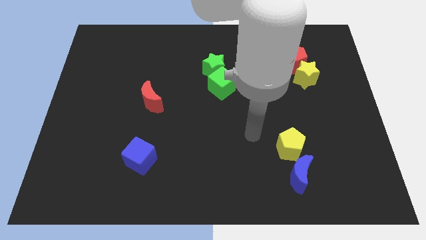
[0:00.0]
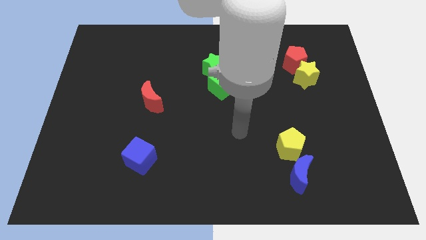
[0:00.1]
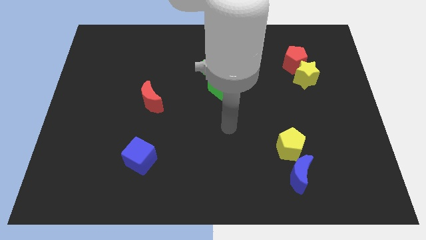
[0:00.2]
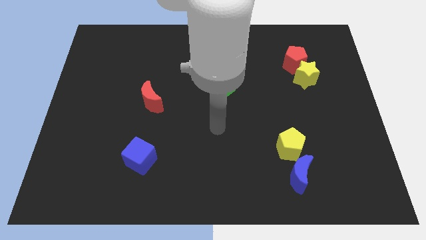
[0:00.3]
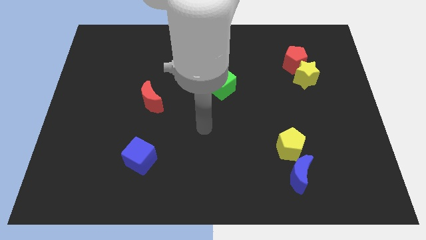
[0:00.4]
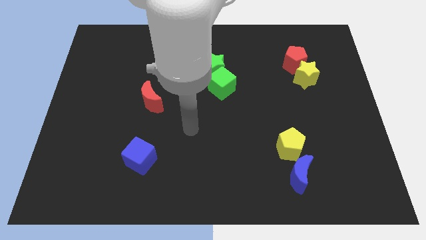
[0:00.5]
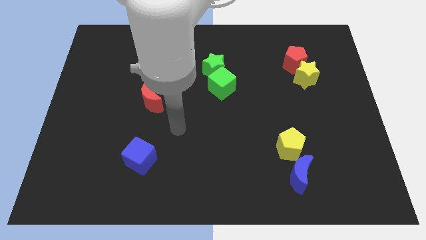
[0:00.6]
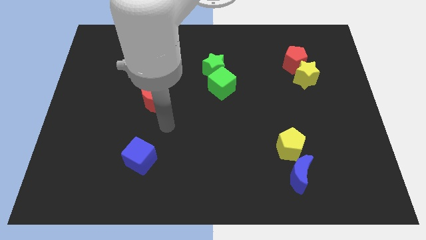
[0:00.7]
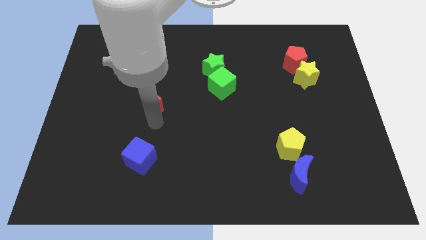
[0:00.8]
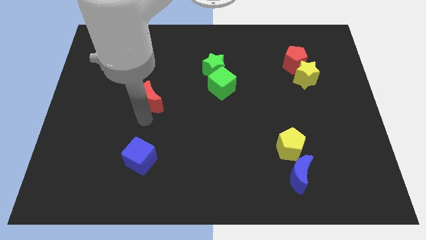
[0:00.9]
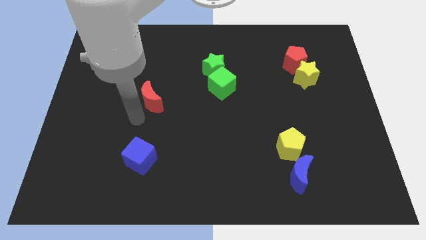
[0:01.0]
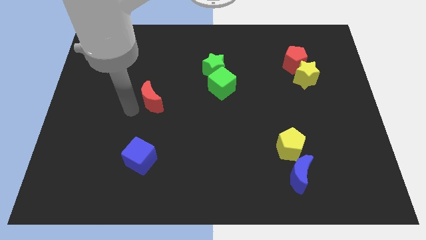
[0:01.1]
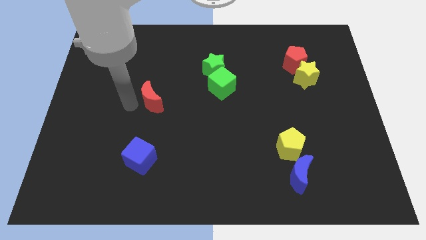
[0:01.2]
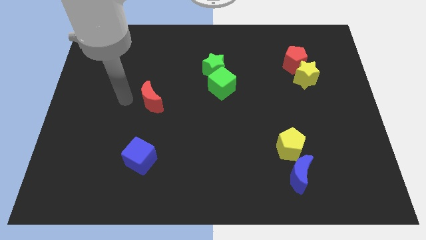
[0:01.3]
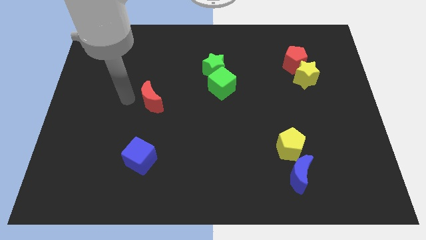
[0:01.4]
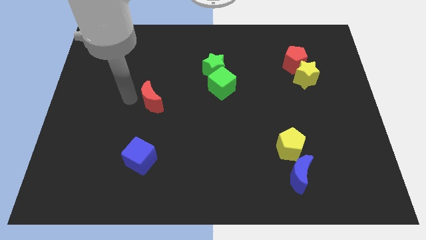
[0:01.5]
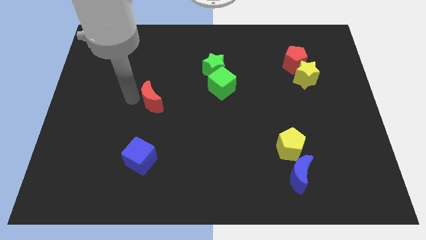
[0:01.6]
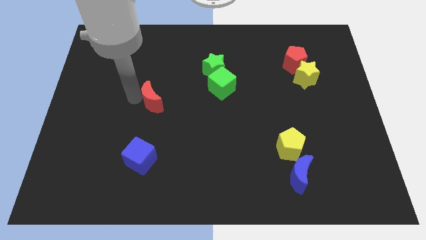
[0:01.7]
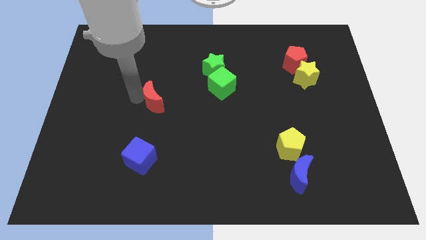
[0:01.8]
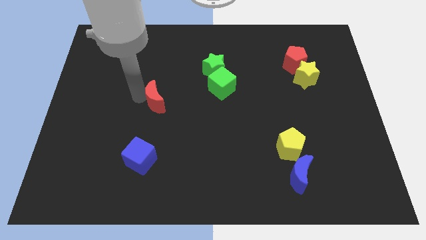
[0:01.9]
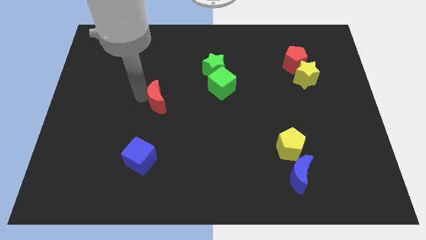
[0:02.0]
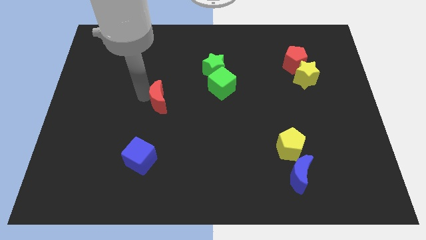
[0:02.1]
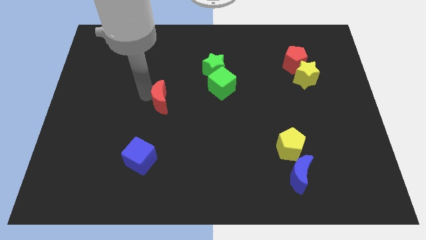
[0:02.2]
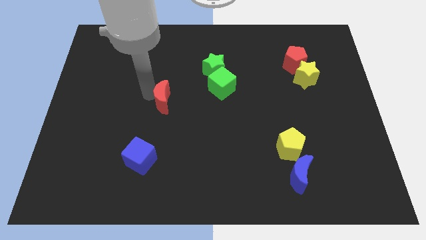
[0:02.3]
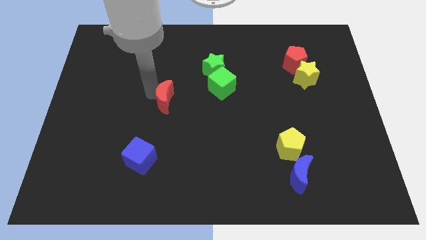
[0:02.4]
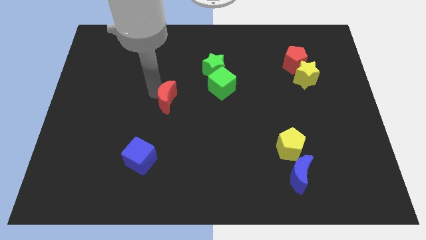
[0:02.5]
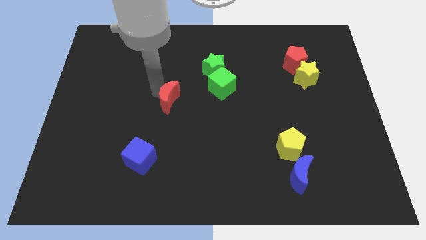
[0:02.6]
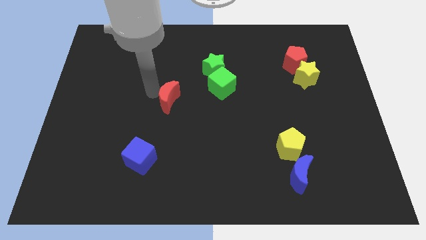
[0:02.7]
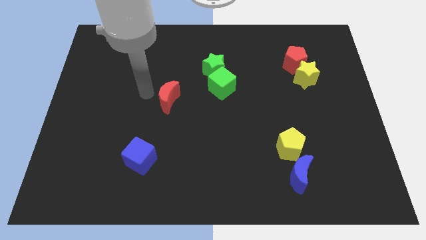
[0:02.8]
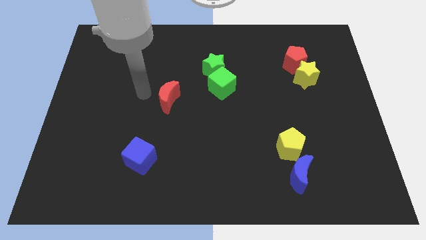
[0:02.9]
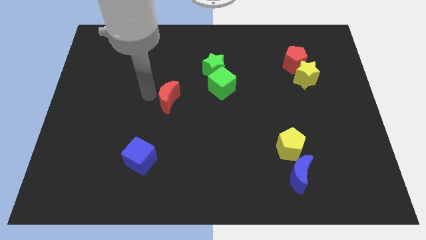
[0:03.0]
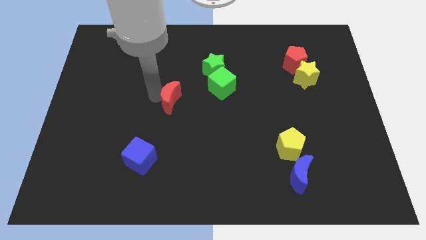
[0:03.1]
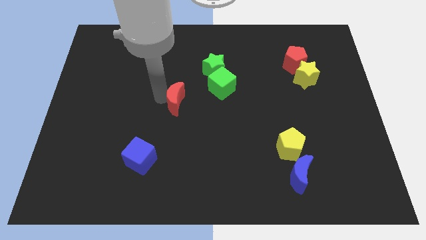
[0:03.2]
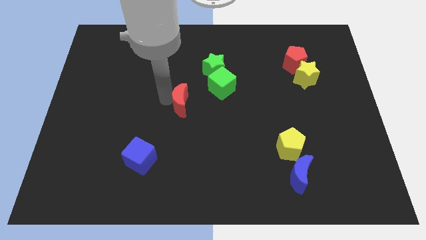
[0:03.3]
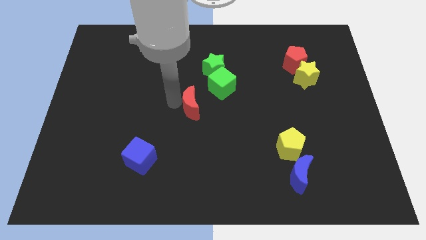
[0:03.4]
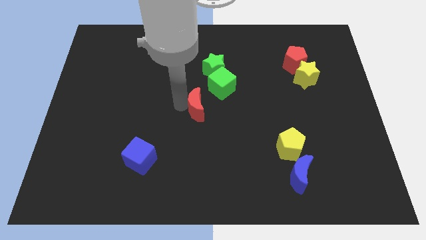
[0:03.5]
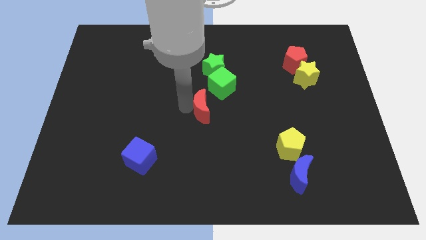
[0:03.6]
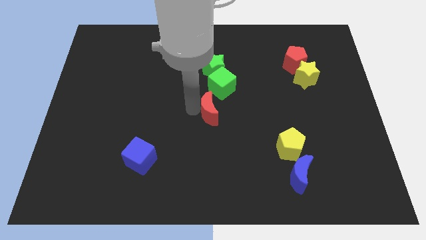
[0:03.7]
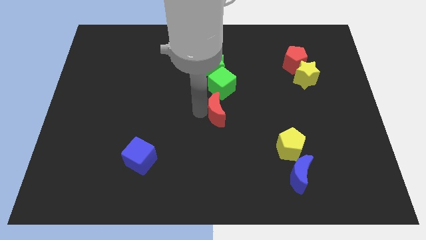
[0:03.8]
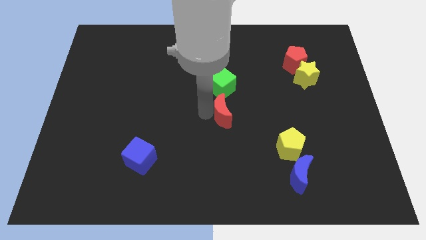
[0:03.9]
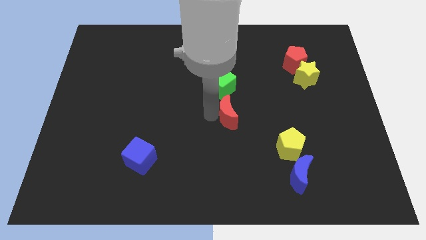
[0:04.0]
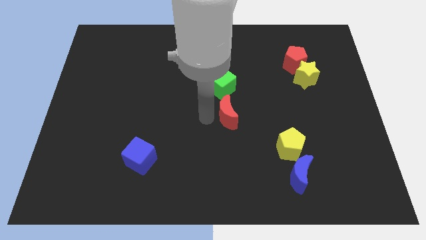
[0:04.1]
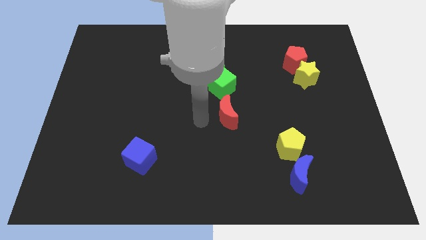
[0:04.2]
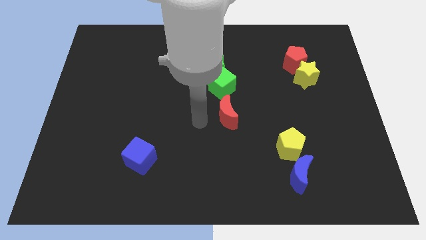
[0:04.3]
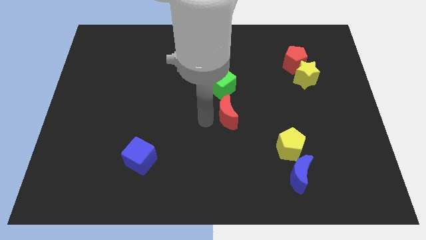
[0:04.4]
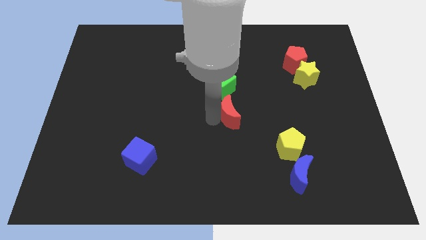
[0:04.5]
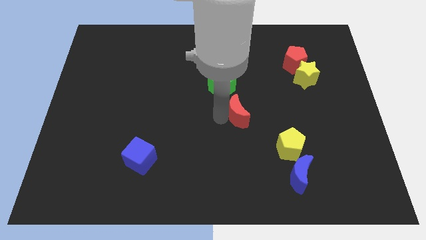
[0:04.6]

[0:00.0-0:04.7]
push the red moon right

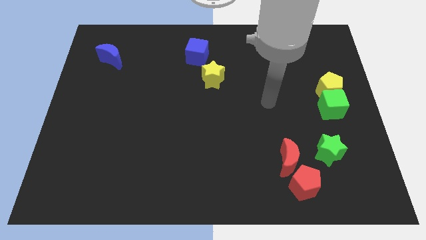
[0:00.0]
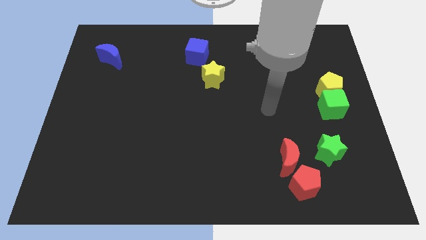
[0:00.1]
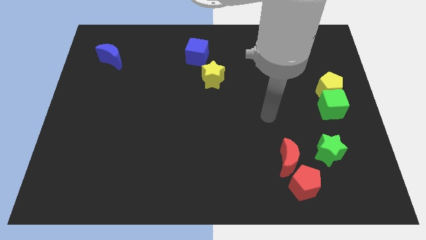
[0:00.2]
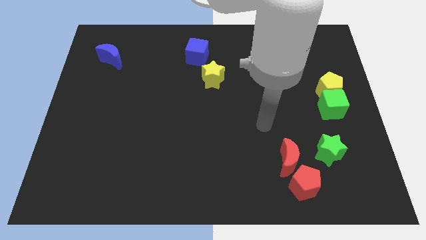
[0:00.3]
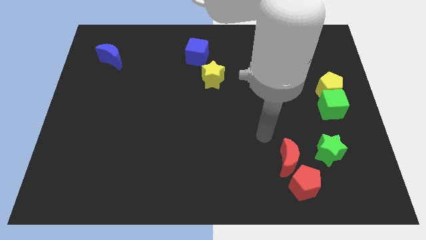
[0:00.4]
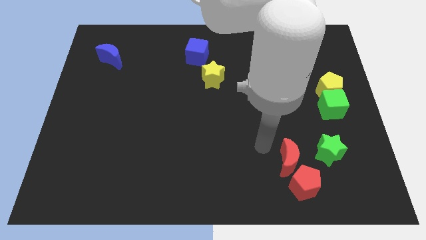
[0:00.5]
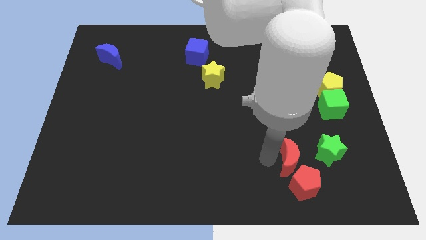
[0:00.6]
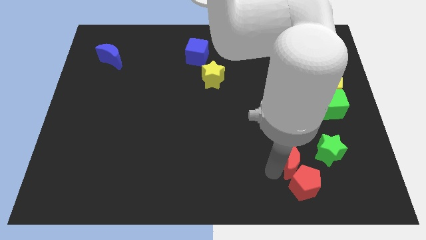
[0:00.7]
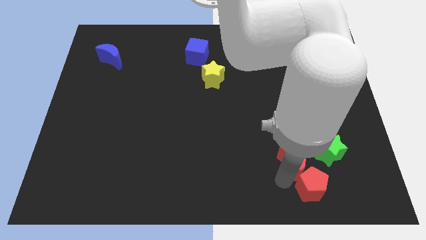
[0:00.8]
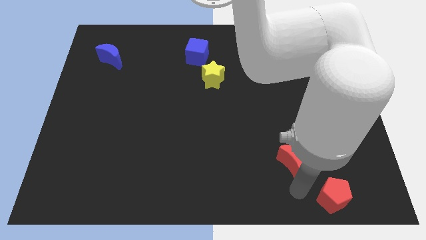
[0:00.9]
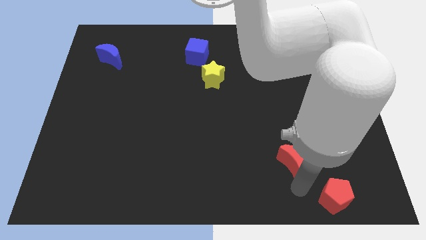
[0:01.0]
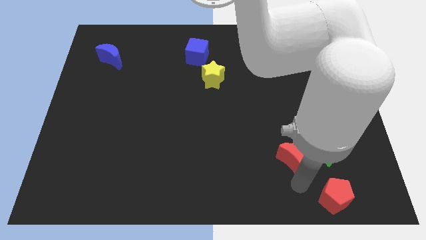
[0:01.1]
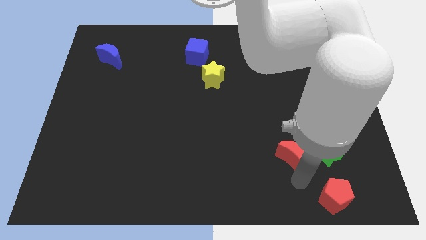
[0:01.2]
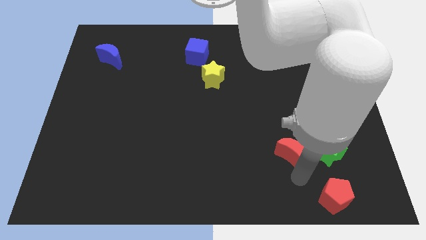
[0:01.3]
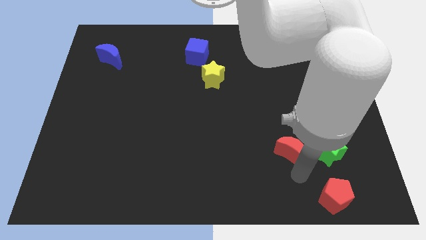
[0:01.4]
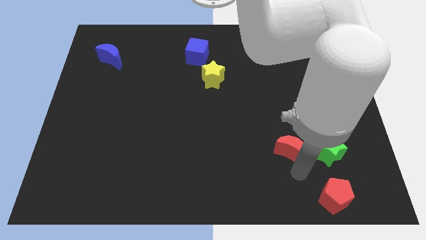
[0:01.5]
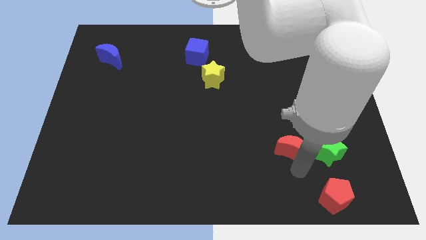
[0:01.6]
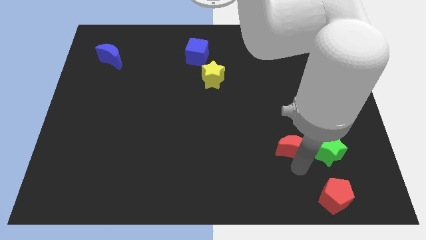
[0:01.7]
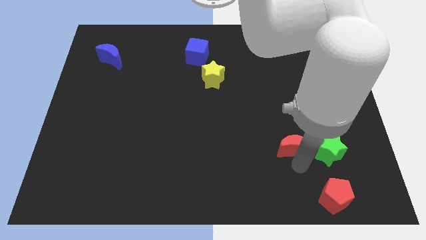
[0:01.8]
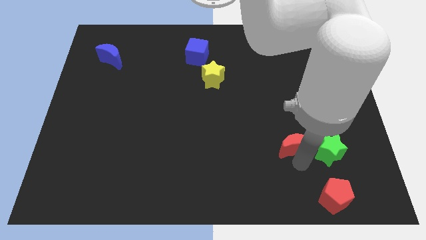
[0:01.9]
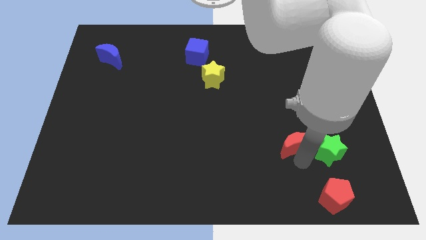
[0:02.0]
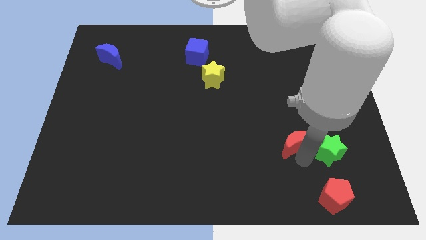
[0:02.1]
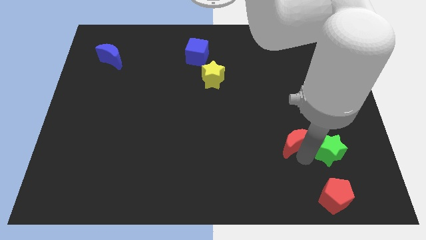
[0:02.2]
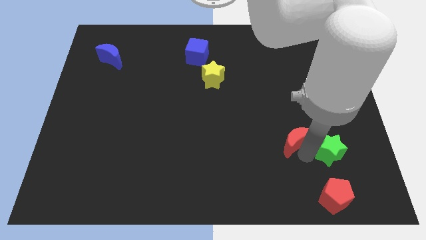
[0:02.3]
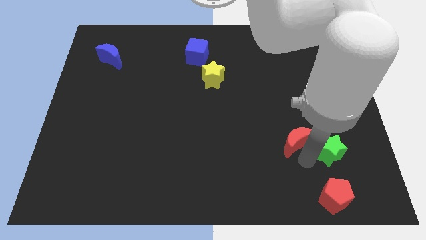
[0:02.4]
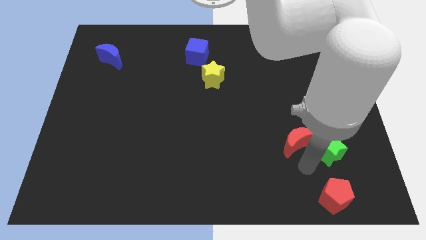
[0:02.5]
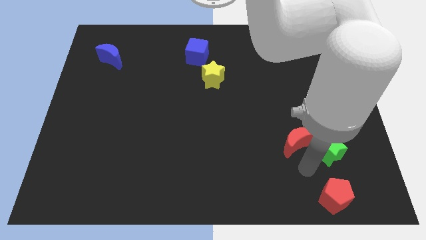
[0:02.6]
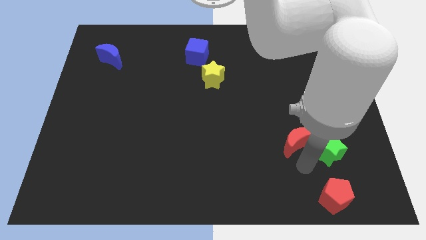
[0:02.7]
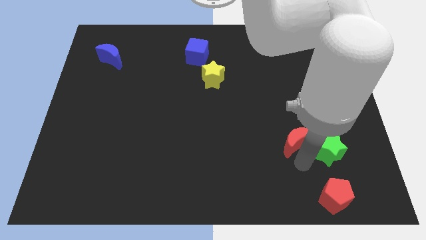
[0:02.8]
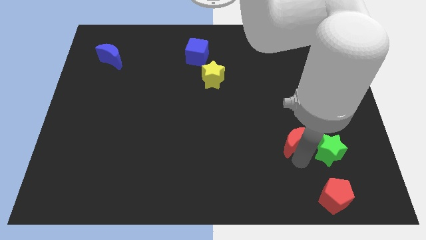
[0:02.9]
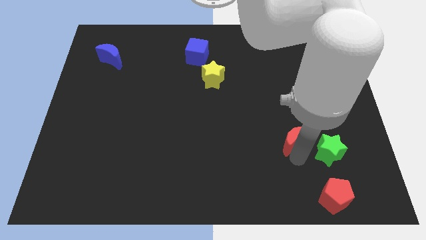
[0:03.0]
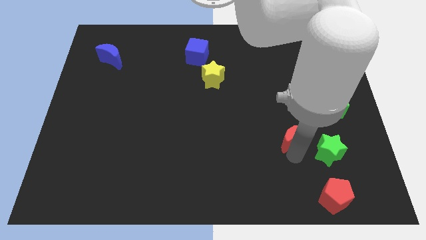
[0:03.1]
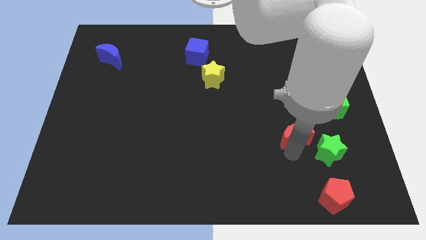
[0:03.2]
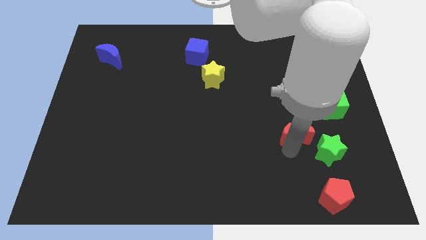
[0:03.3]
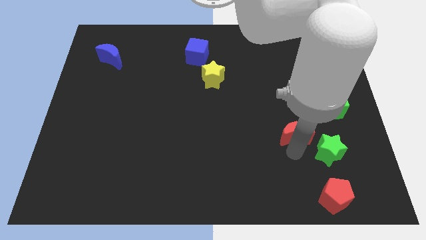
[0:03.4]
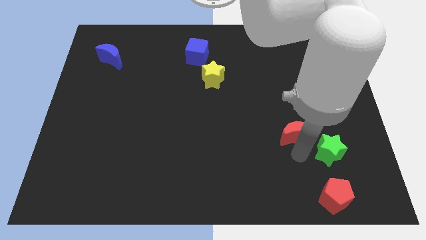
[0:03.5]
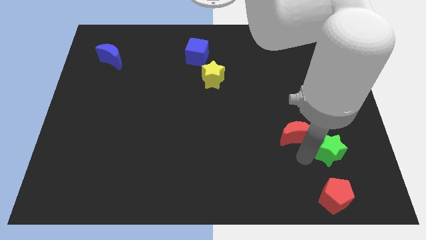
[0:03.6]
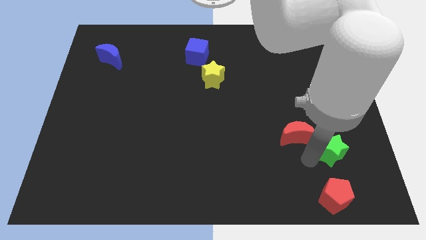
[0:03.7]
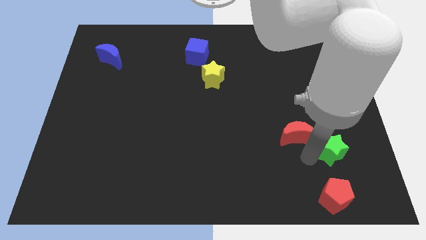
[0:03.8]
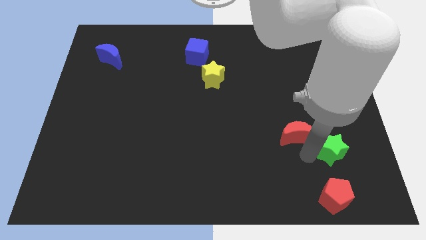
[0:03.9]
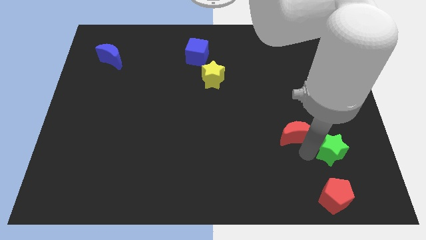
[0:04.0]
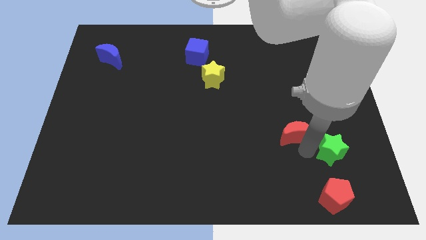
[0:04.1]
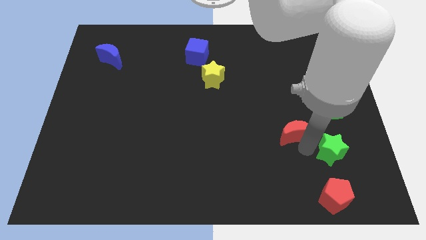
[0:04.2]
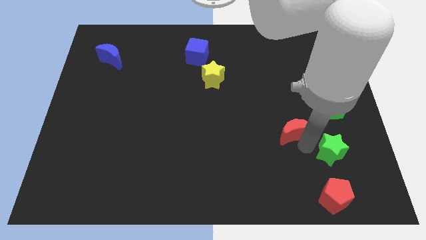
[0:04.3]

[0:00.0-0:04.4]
slightly move the red moon upwards
